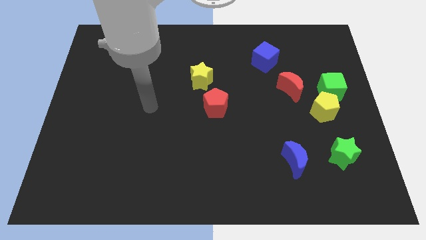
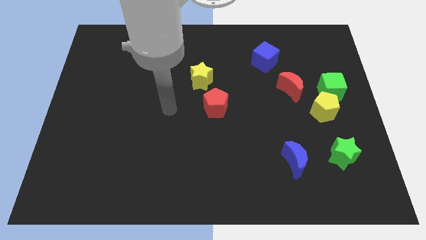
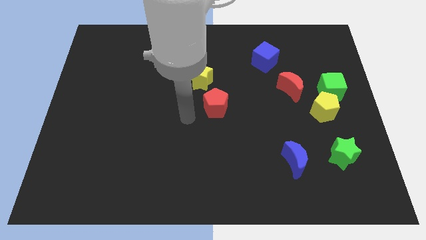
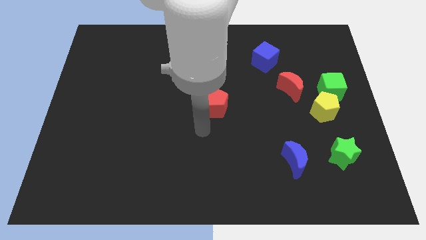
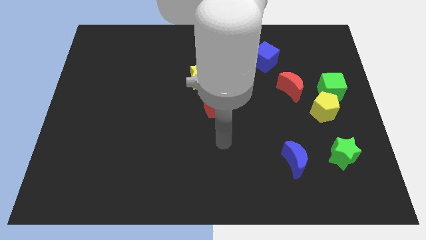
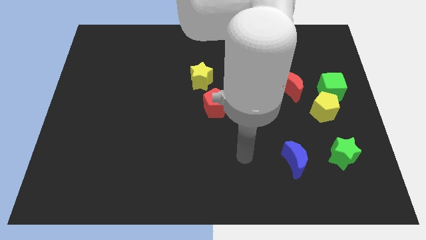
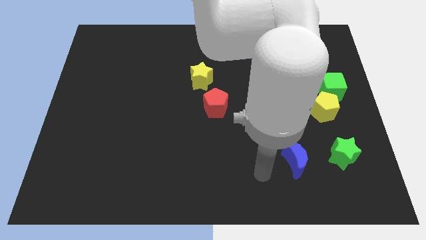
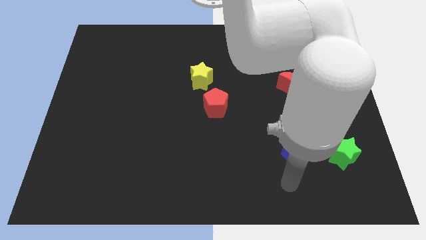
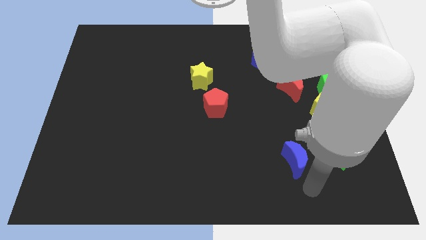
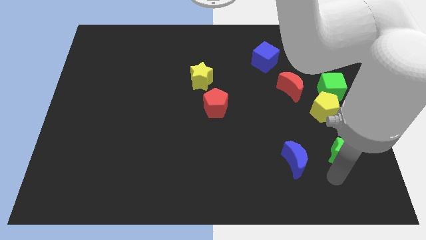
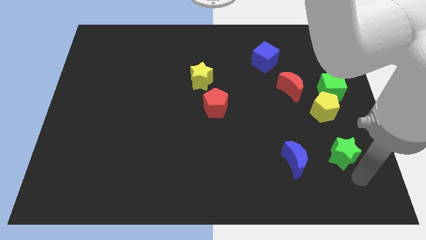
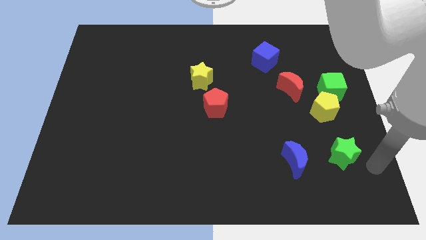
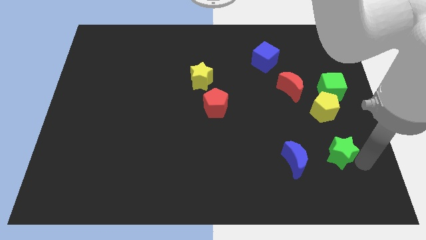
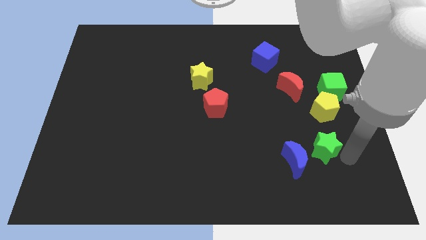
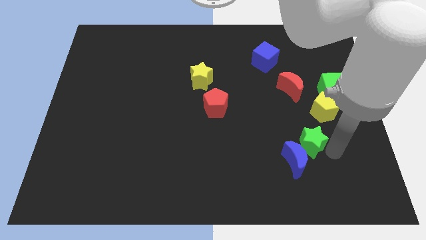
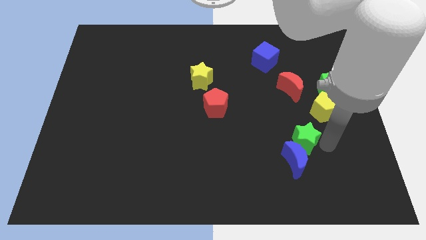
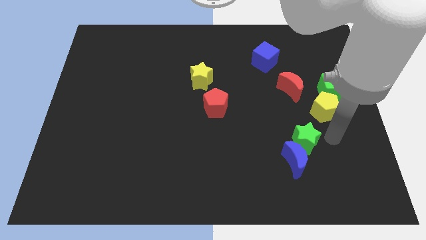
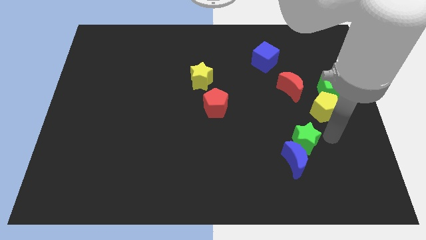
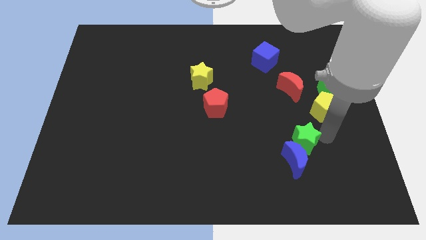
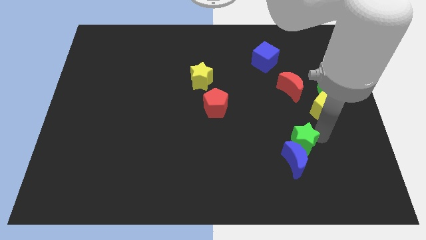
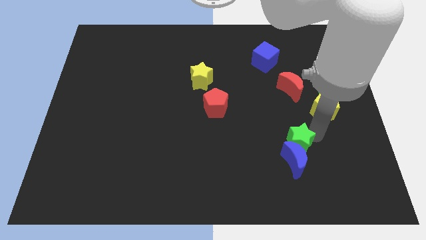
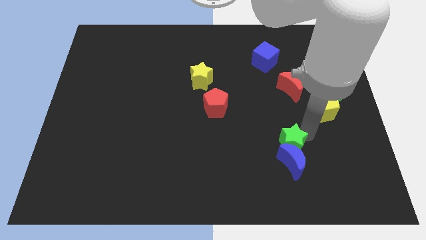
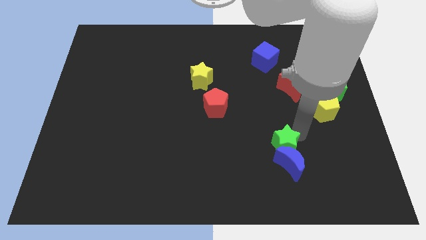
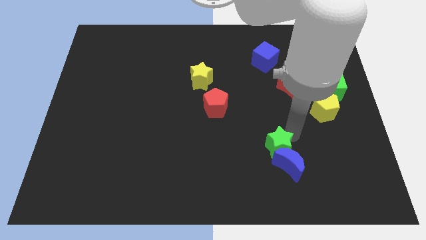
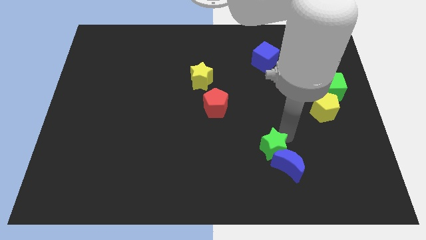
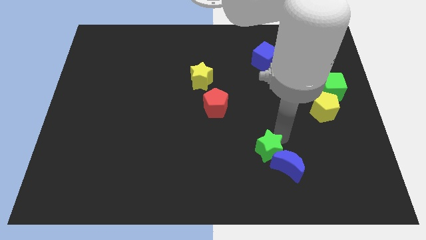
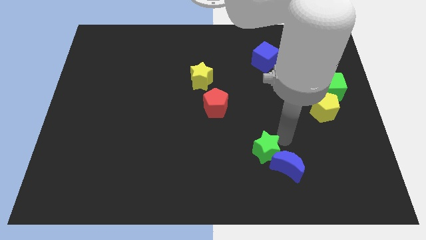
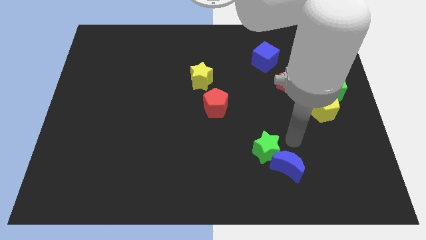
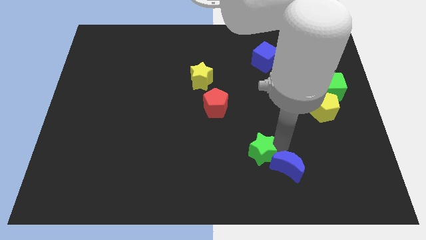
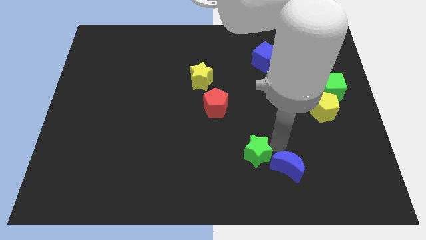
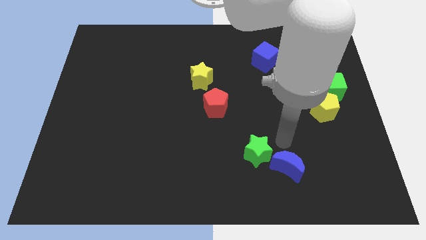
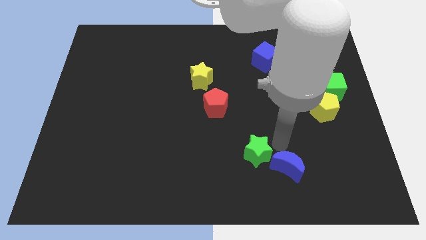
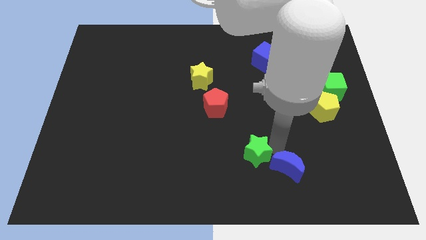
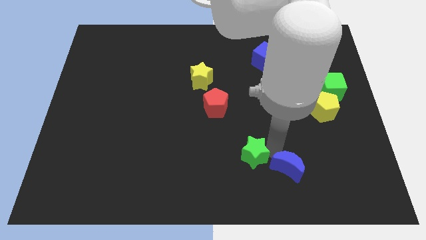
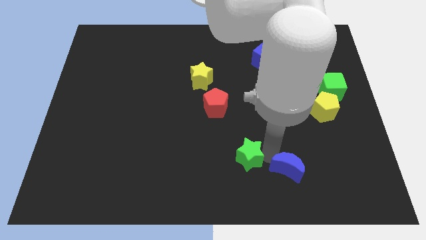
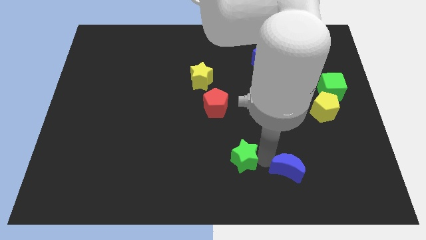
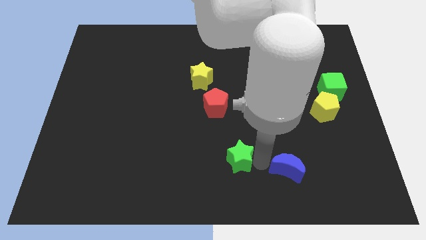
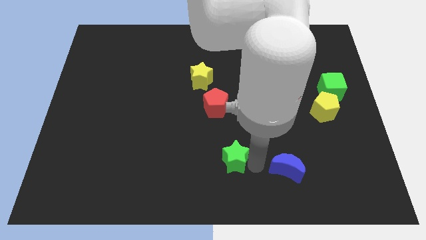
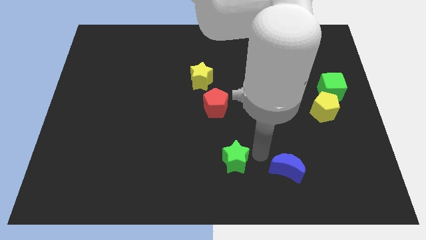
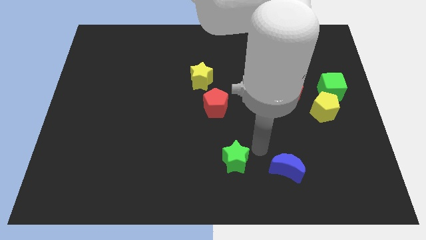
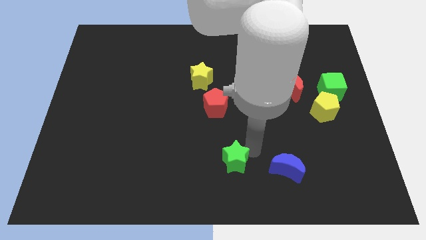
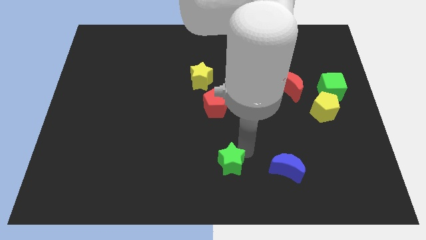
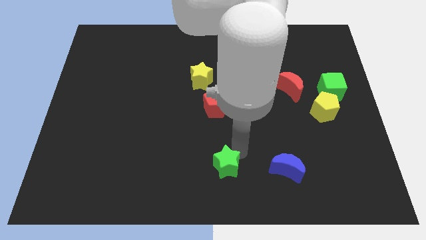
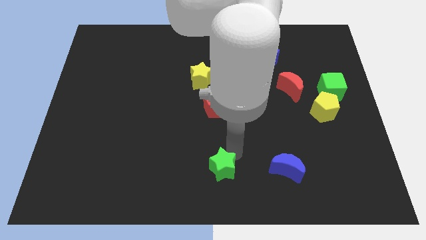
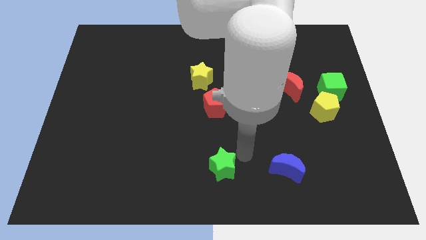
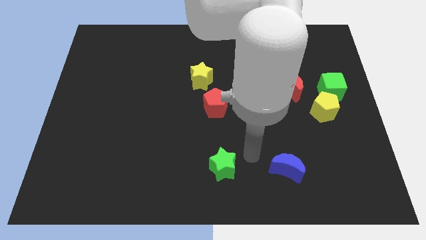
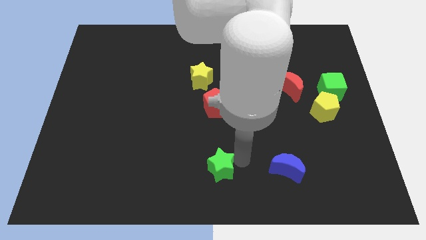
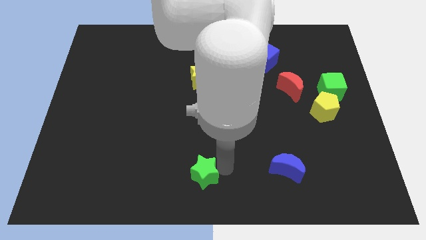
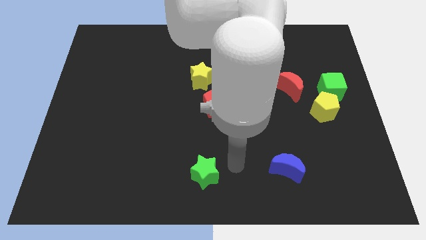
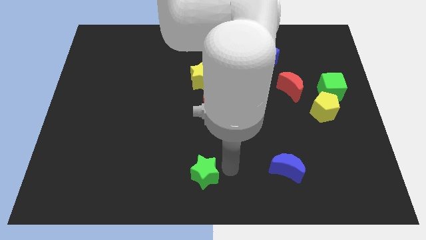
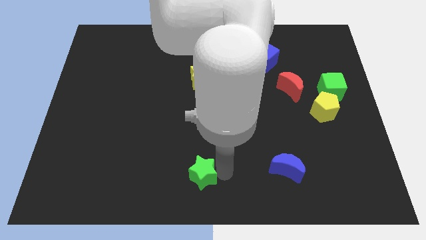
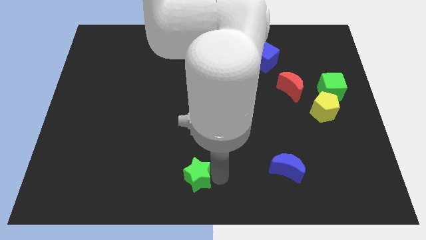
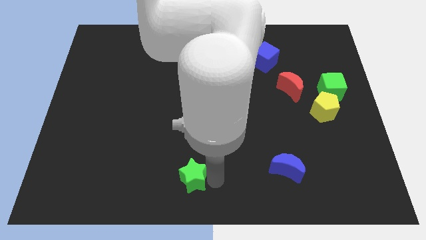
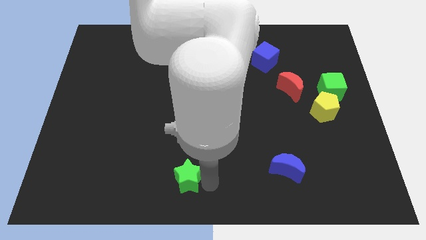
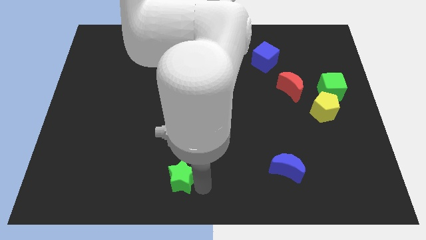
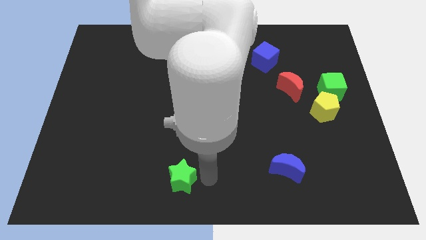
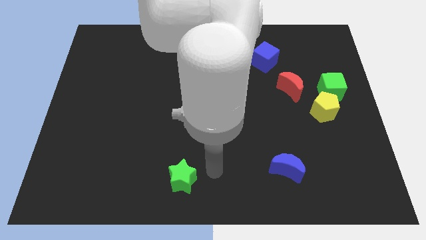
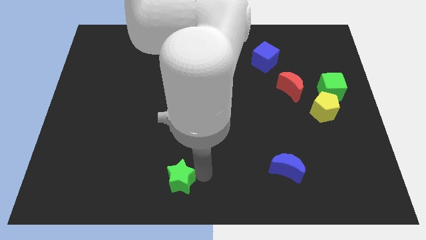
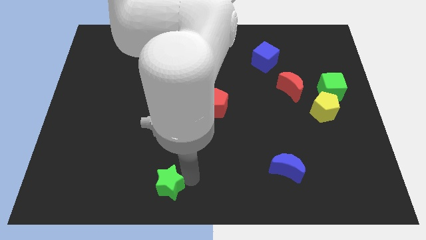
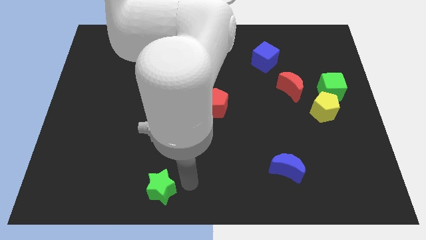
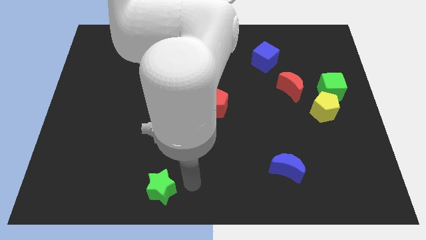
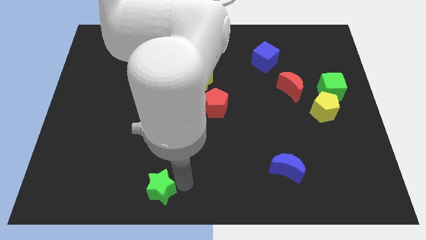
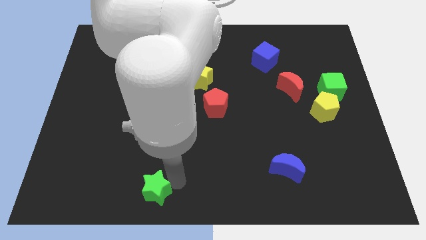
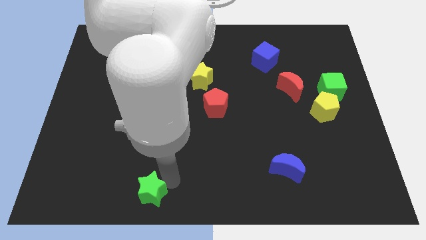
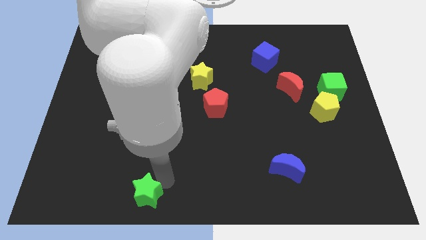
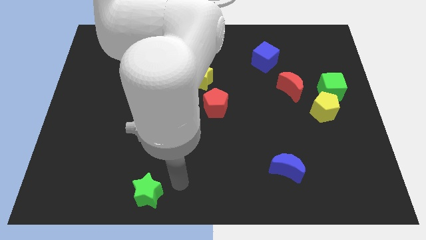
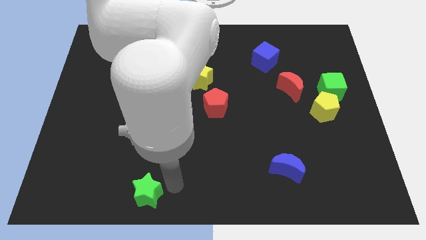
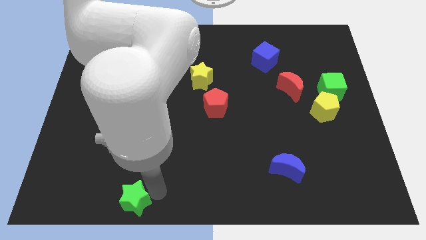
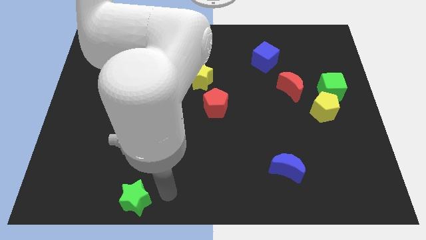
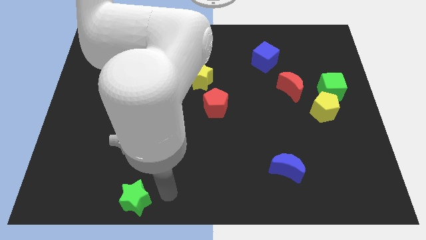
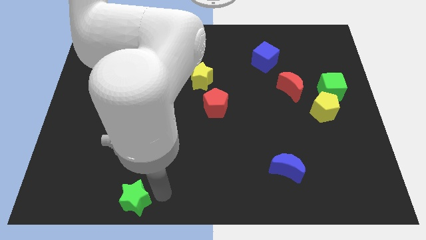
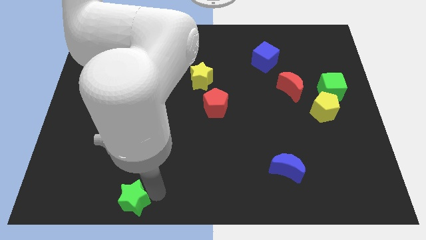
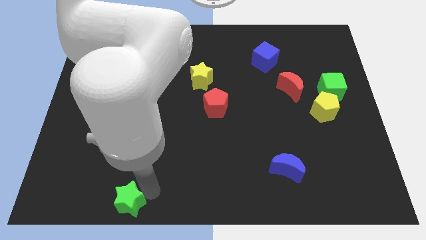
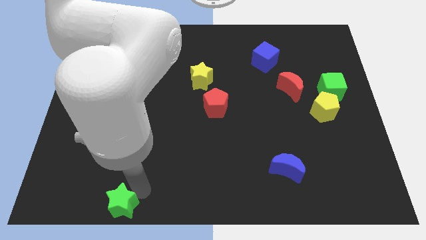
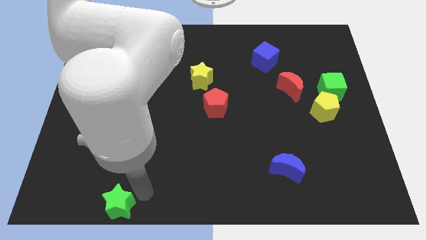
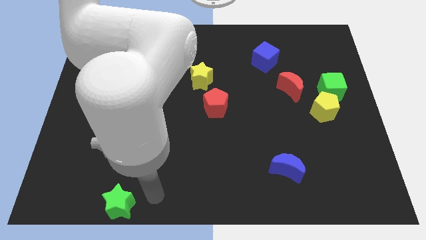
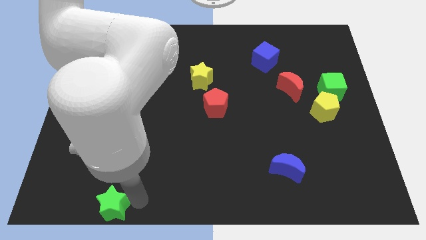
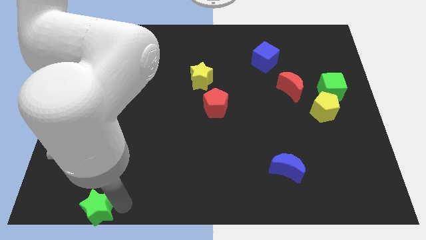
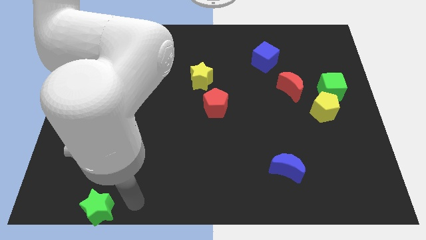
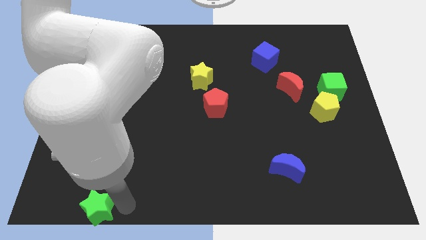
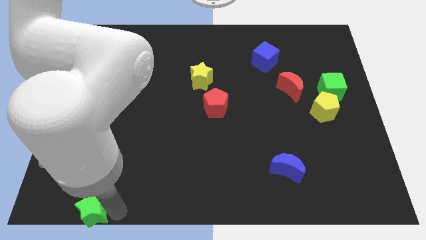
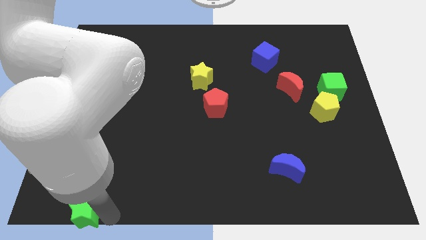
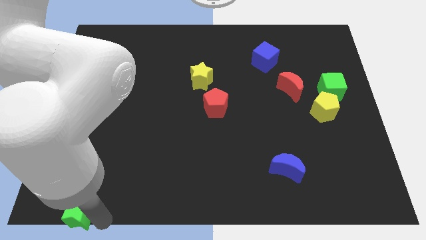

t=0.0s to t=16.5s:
slide the green star to the bottom left corner
